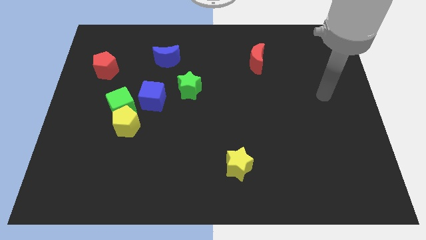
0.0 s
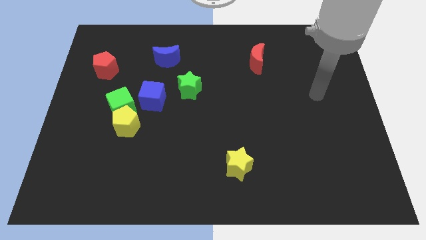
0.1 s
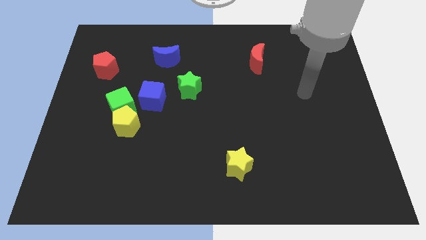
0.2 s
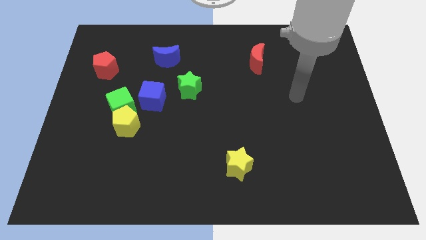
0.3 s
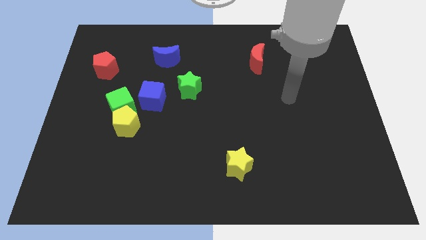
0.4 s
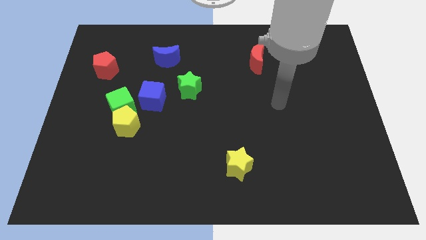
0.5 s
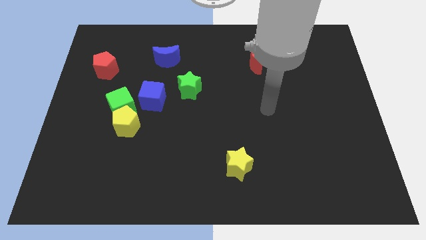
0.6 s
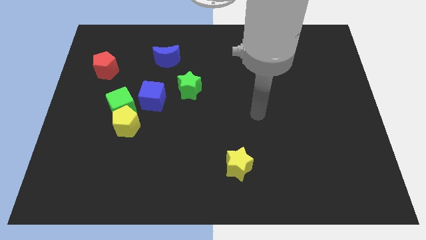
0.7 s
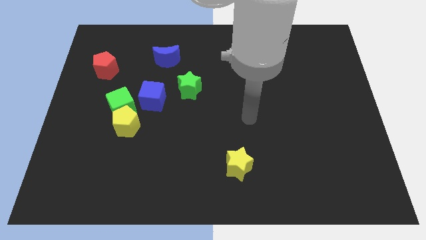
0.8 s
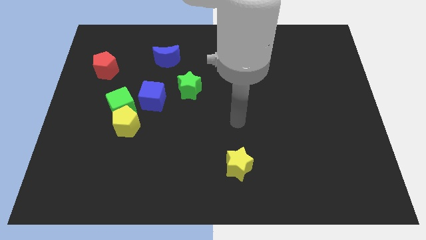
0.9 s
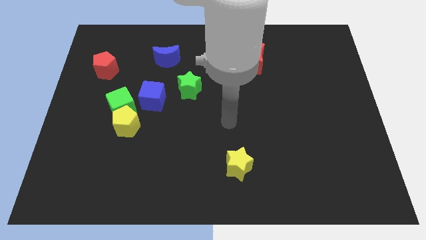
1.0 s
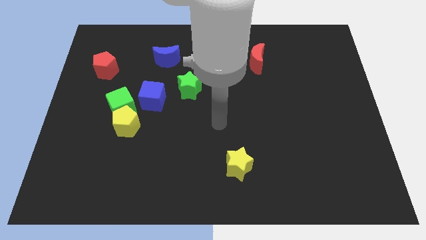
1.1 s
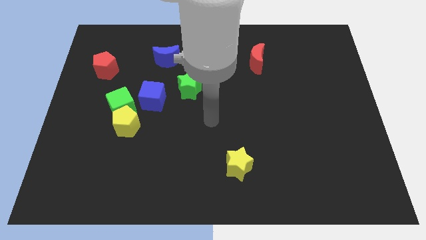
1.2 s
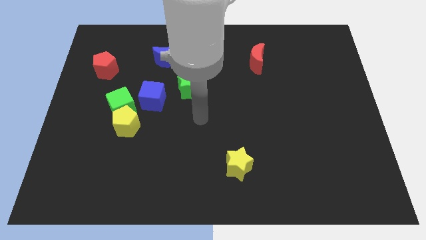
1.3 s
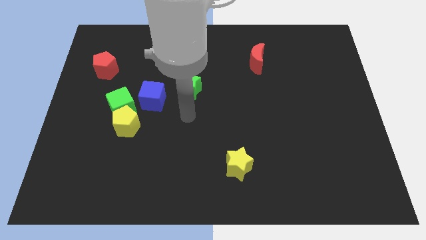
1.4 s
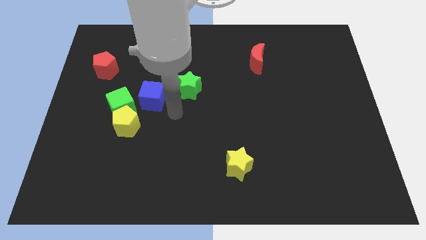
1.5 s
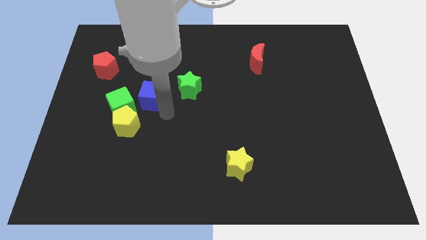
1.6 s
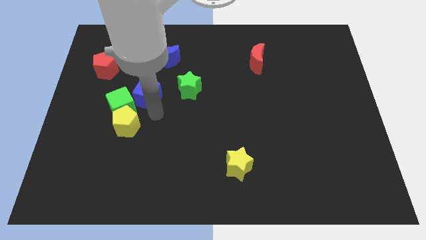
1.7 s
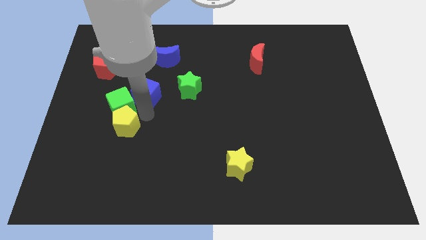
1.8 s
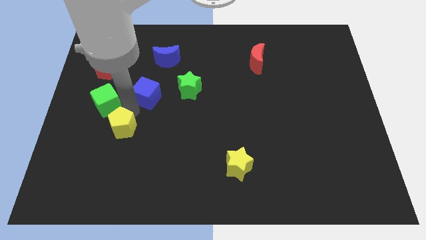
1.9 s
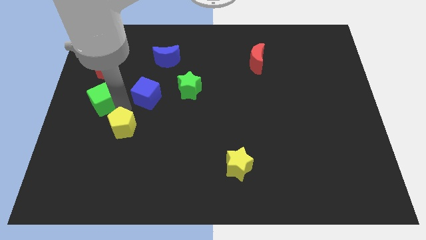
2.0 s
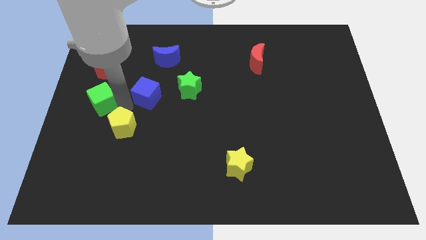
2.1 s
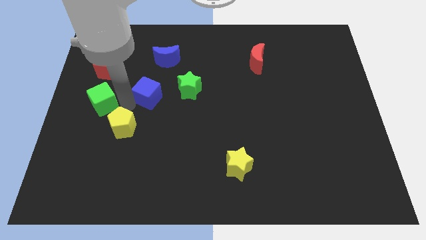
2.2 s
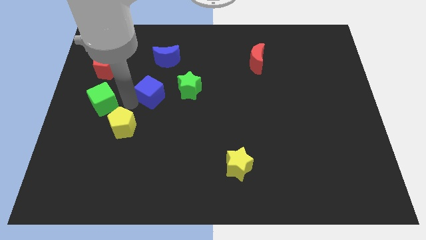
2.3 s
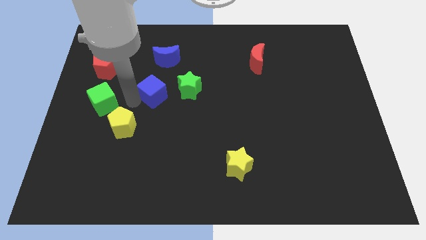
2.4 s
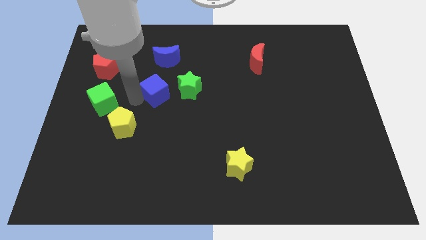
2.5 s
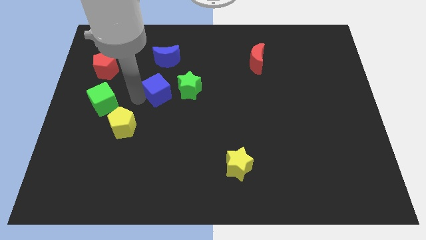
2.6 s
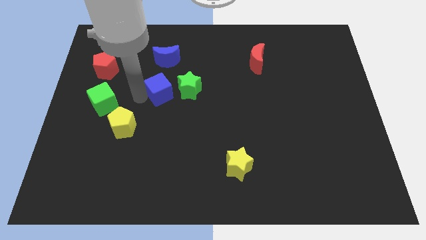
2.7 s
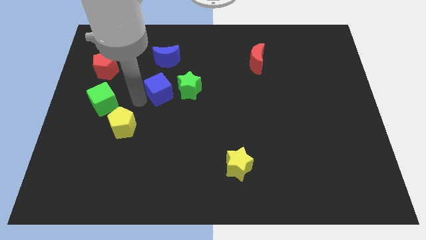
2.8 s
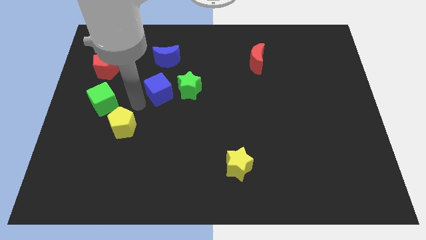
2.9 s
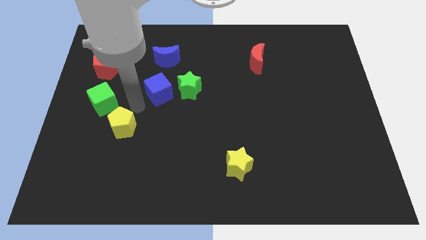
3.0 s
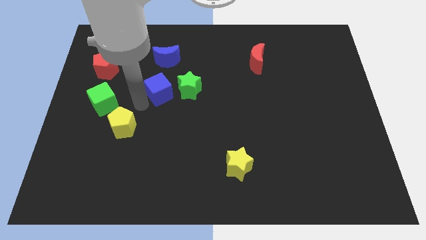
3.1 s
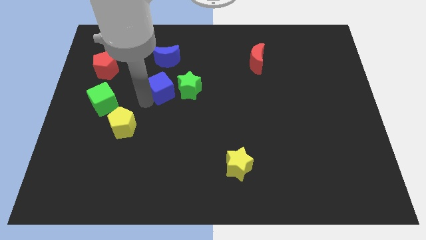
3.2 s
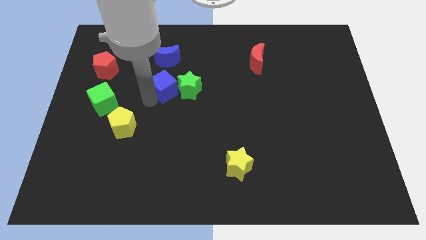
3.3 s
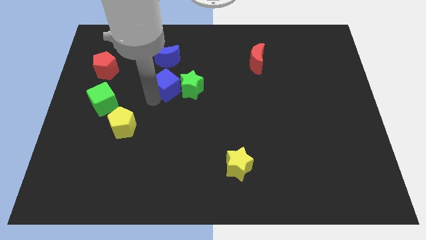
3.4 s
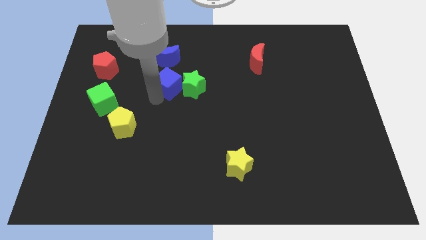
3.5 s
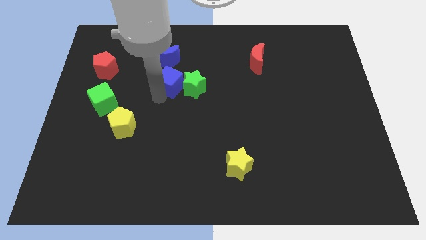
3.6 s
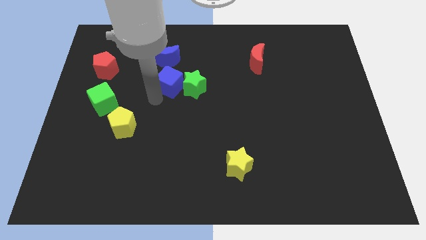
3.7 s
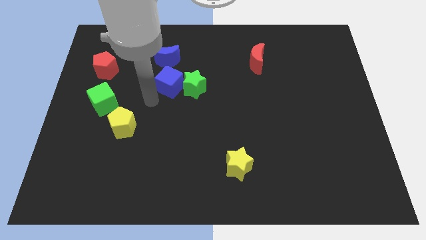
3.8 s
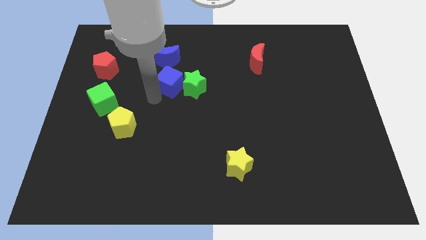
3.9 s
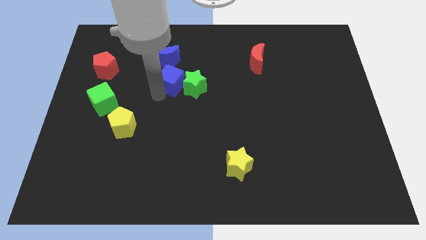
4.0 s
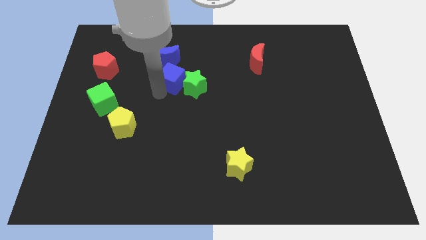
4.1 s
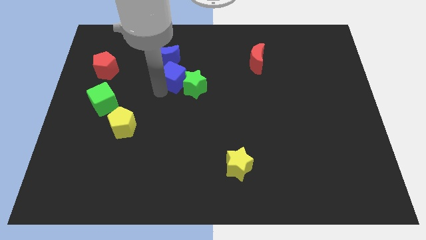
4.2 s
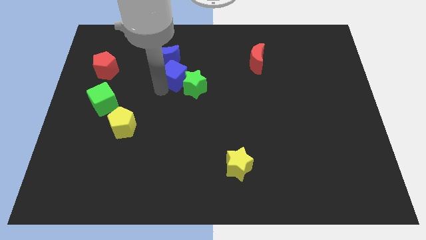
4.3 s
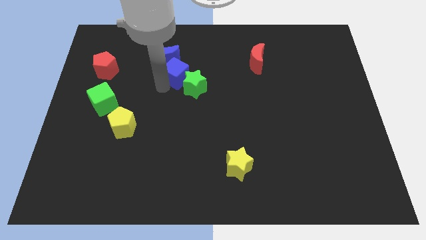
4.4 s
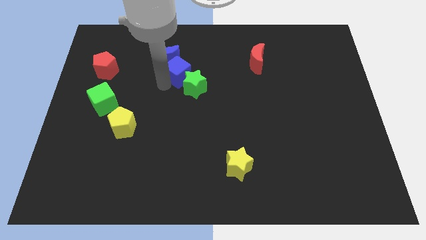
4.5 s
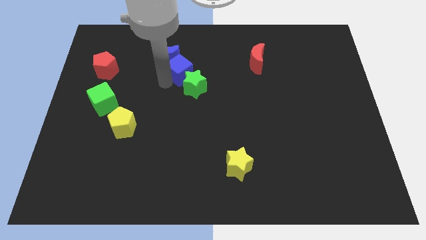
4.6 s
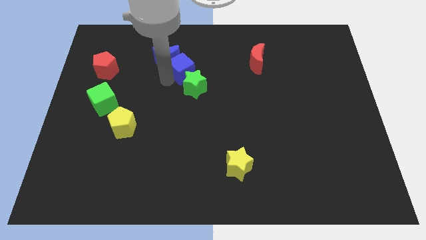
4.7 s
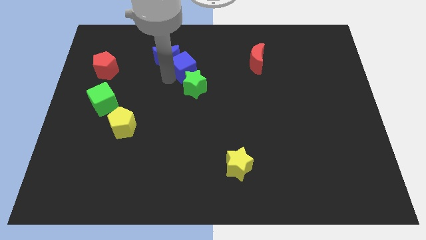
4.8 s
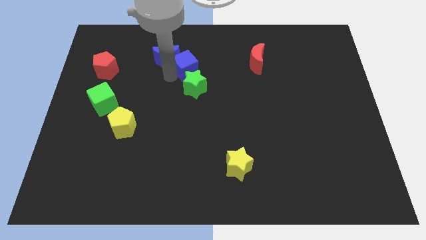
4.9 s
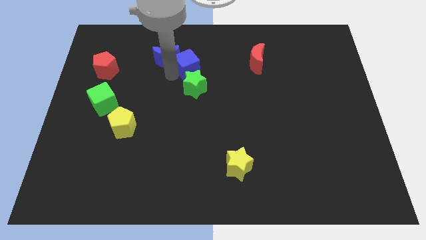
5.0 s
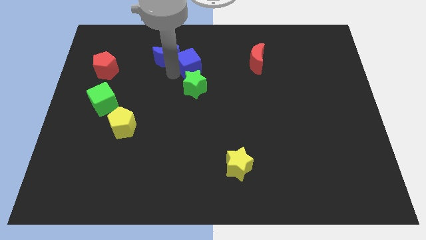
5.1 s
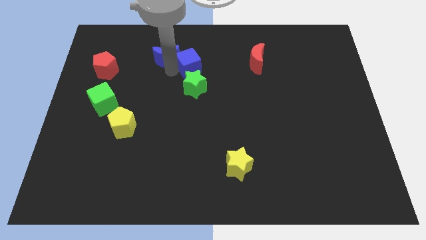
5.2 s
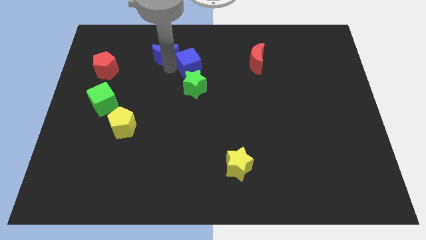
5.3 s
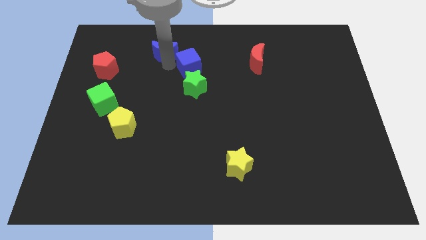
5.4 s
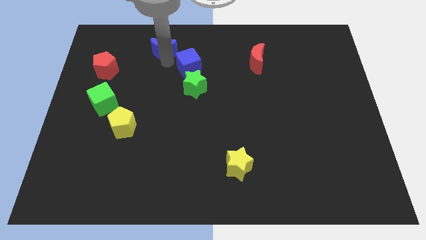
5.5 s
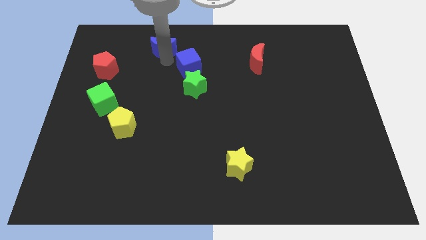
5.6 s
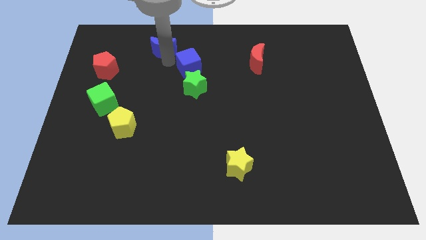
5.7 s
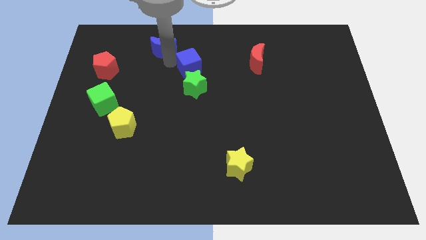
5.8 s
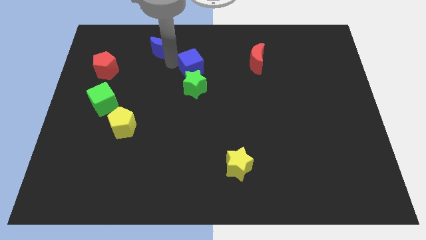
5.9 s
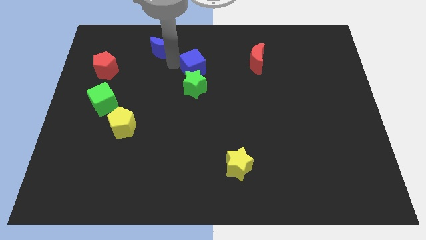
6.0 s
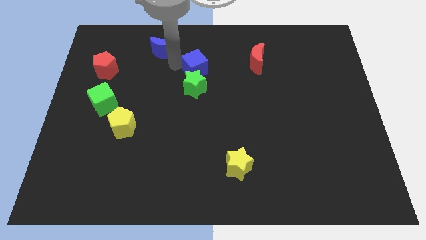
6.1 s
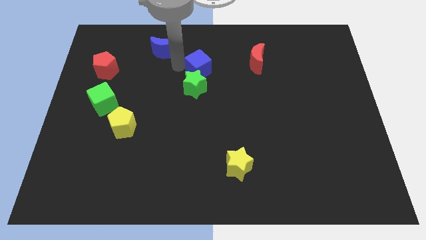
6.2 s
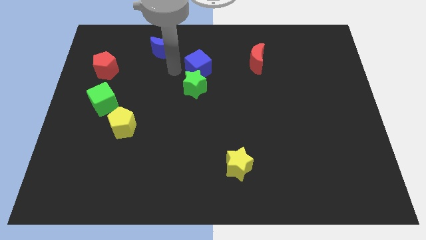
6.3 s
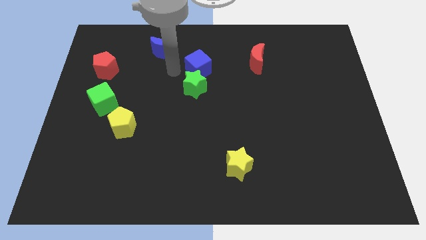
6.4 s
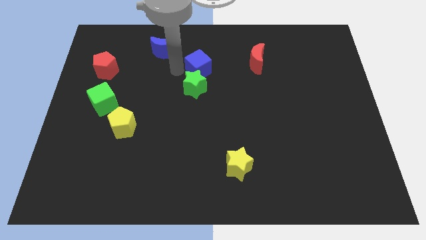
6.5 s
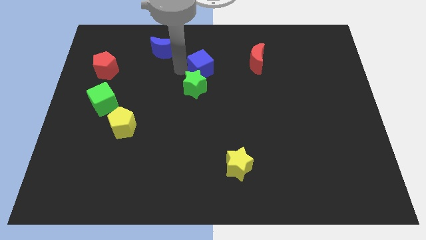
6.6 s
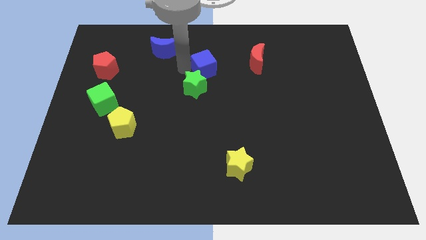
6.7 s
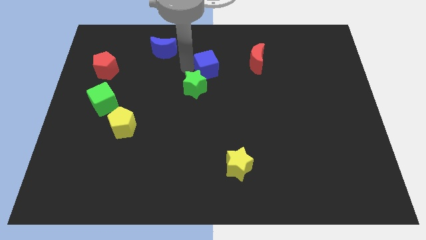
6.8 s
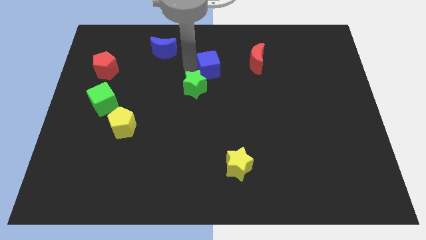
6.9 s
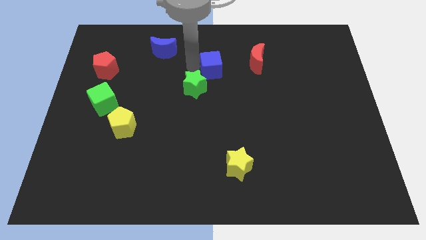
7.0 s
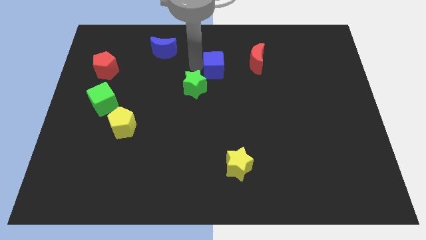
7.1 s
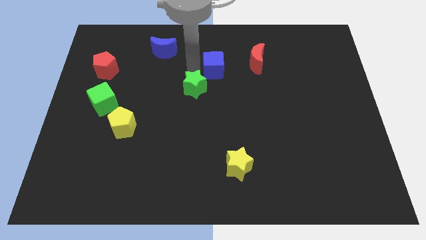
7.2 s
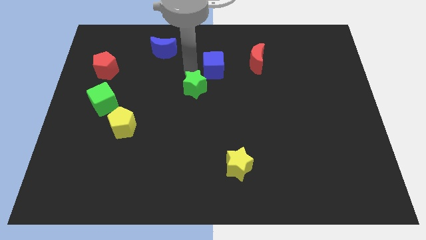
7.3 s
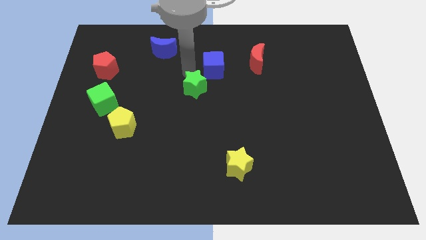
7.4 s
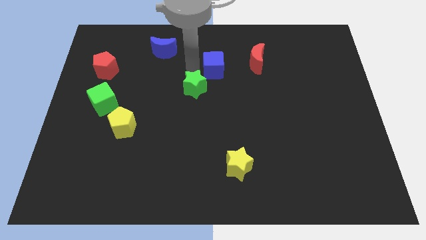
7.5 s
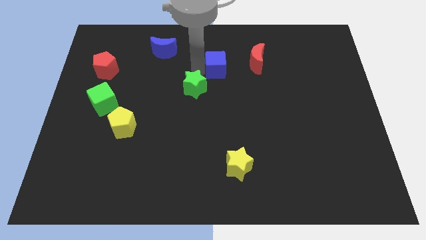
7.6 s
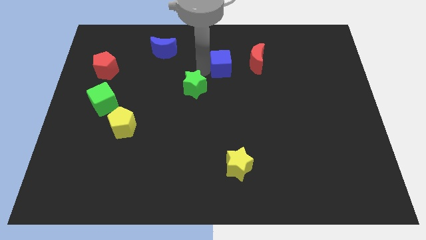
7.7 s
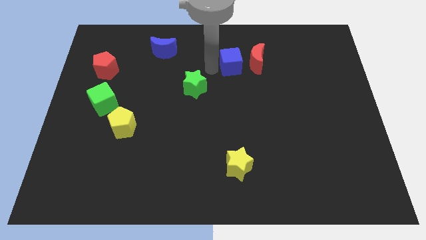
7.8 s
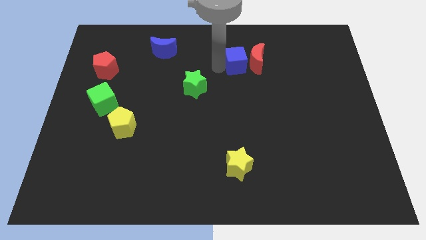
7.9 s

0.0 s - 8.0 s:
put the blue cube close to the red moon
